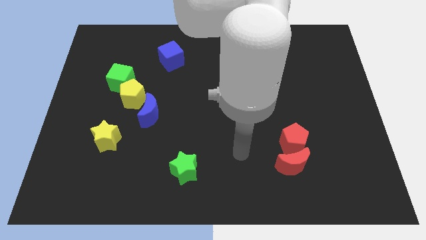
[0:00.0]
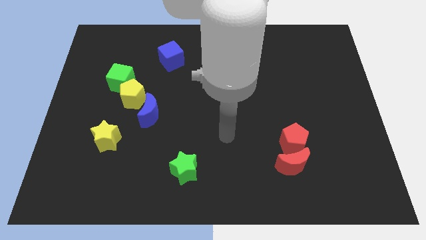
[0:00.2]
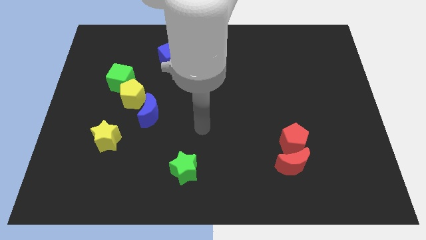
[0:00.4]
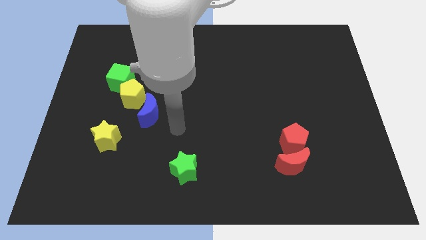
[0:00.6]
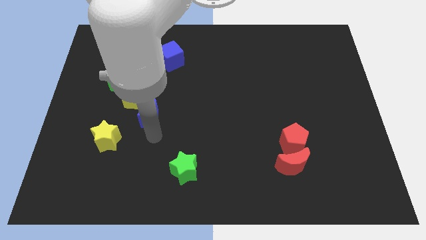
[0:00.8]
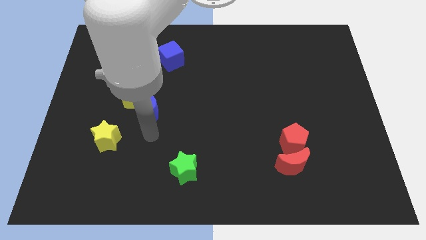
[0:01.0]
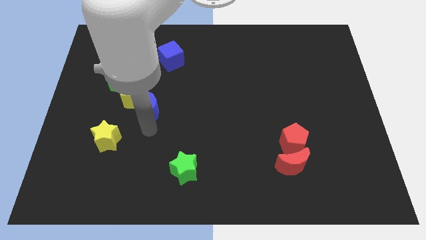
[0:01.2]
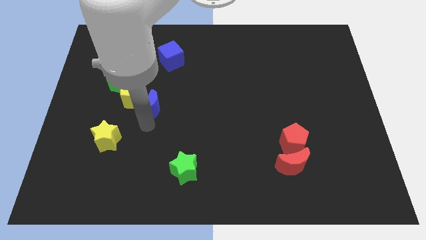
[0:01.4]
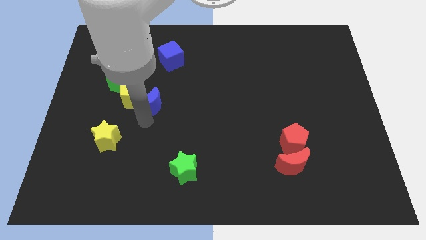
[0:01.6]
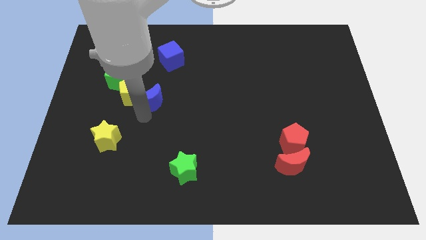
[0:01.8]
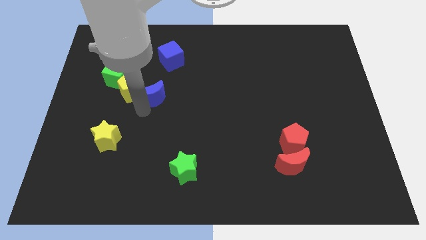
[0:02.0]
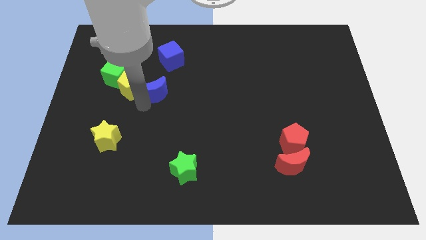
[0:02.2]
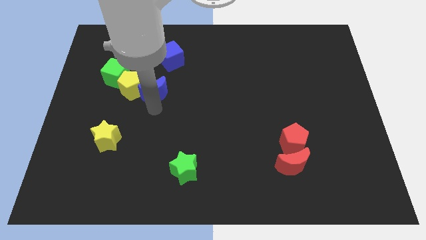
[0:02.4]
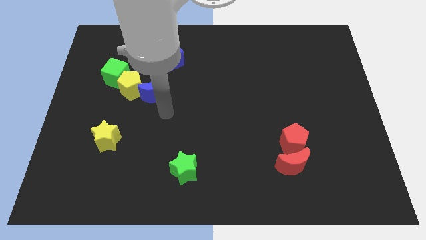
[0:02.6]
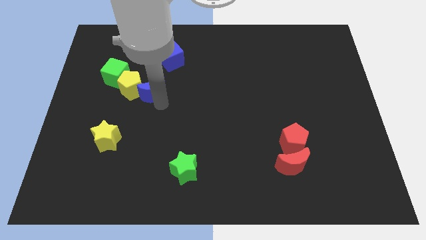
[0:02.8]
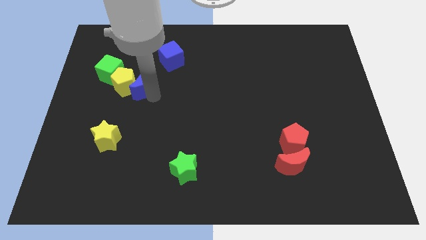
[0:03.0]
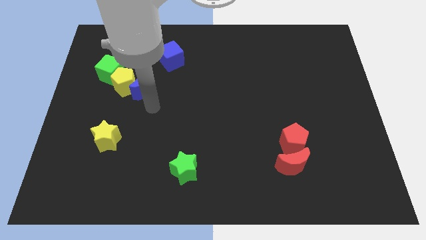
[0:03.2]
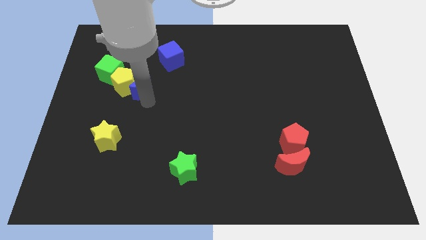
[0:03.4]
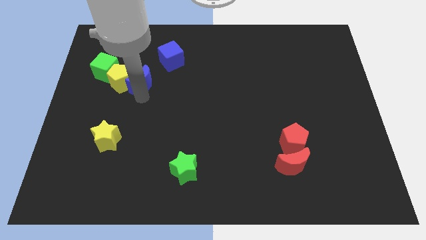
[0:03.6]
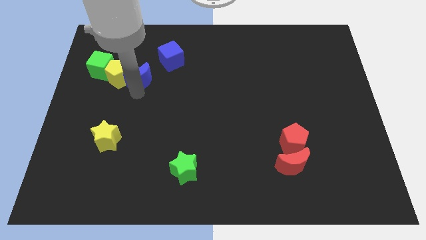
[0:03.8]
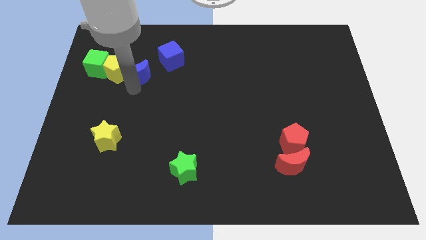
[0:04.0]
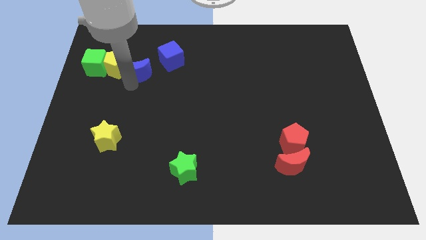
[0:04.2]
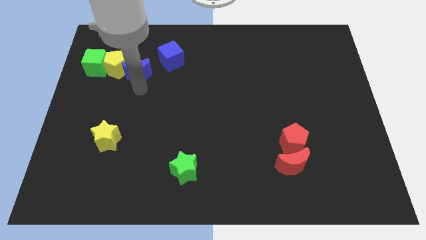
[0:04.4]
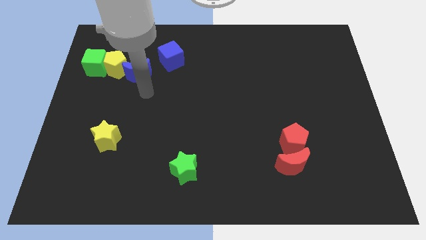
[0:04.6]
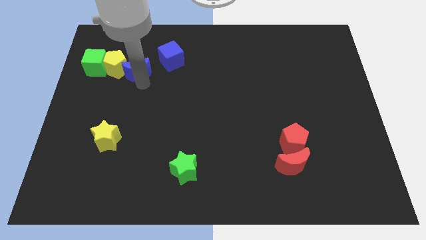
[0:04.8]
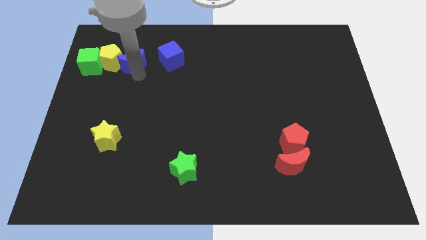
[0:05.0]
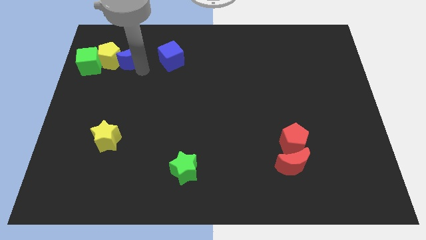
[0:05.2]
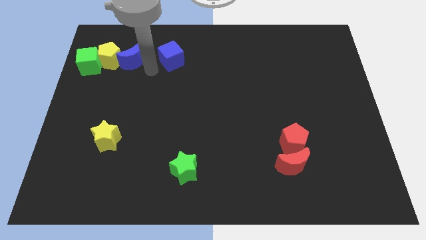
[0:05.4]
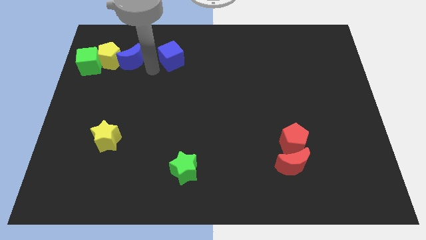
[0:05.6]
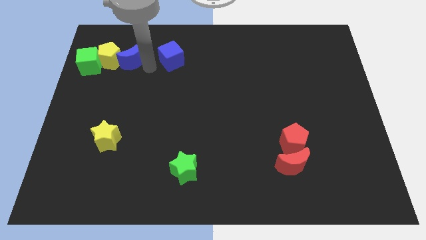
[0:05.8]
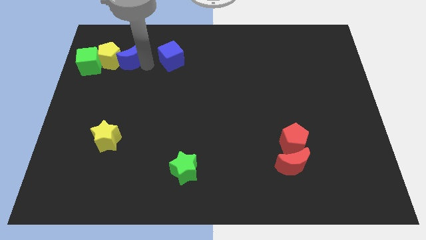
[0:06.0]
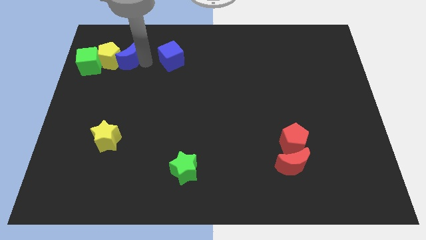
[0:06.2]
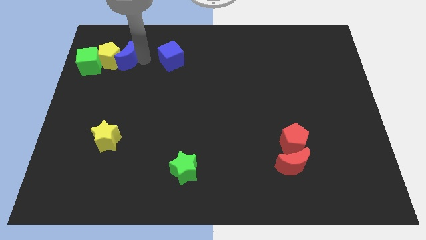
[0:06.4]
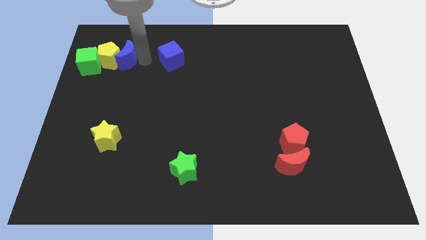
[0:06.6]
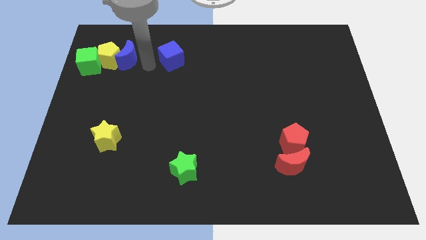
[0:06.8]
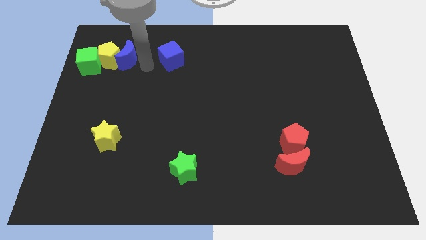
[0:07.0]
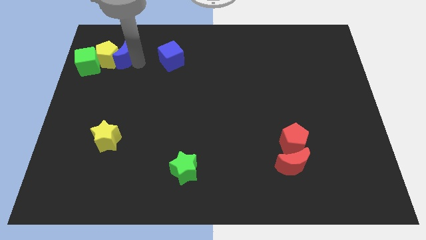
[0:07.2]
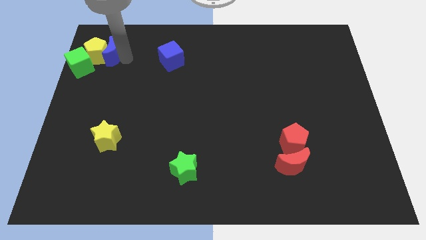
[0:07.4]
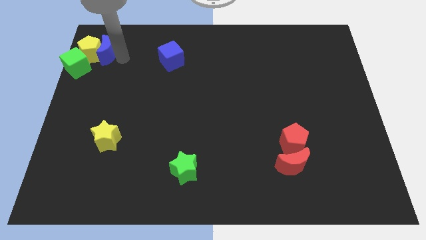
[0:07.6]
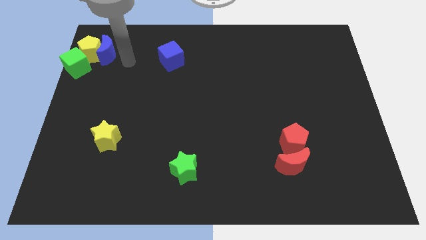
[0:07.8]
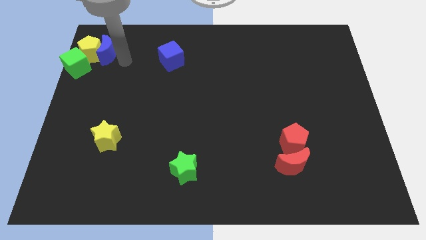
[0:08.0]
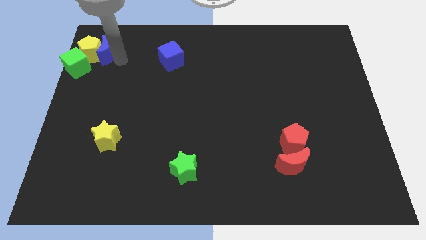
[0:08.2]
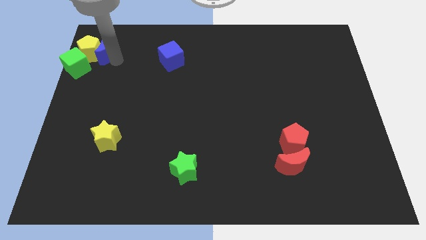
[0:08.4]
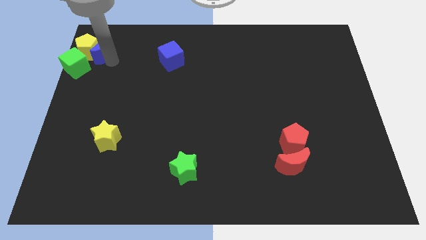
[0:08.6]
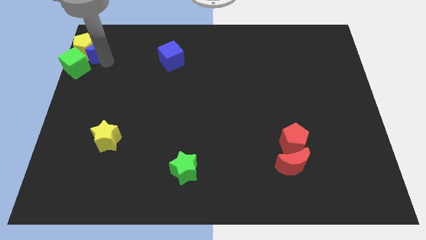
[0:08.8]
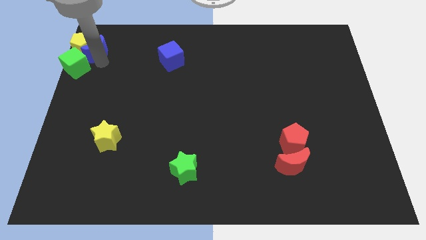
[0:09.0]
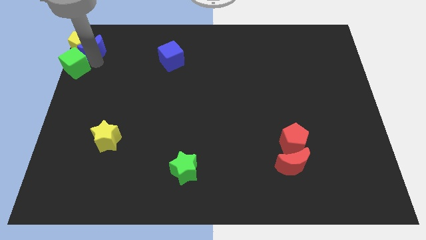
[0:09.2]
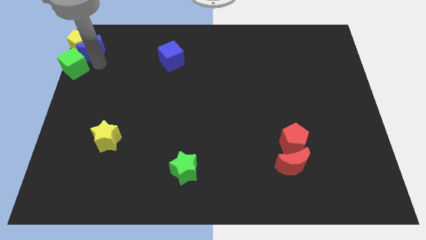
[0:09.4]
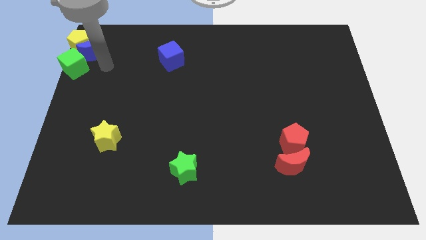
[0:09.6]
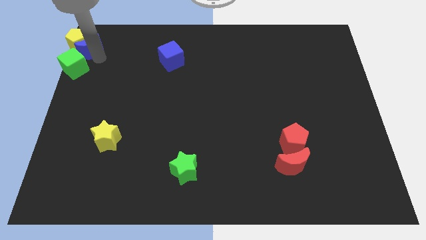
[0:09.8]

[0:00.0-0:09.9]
slide the blue moon to the top left

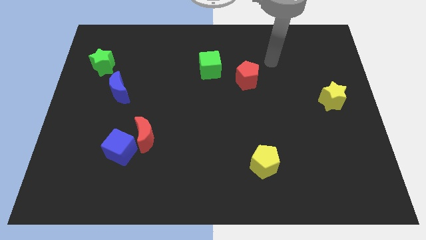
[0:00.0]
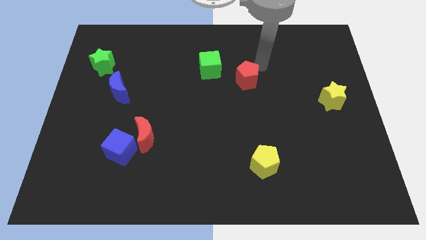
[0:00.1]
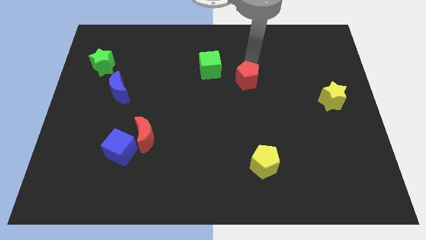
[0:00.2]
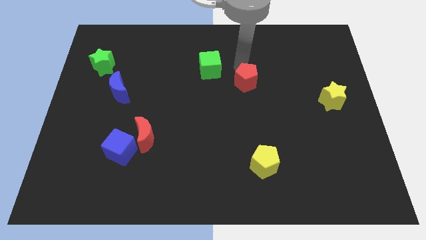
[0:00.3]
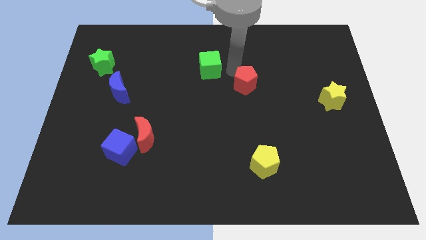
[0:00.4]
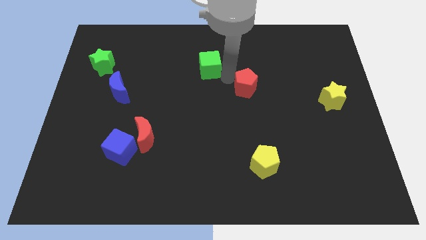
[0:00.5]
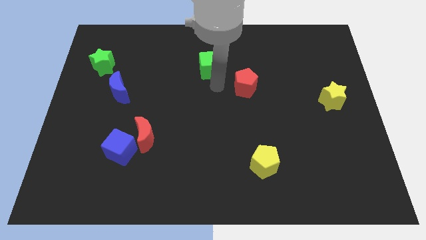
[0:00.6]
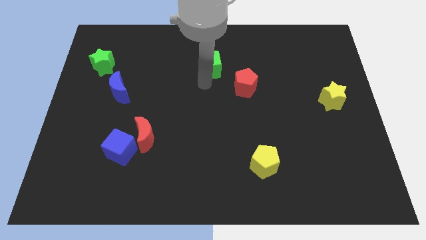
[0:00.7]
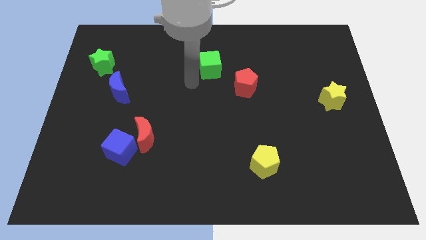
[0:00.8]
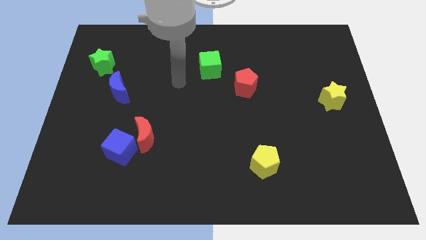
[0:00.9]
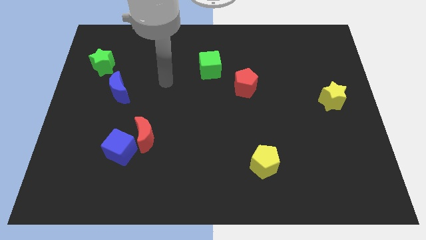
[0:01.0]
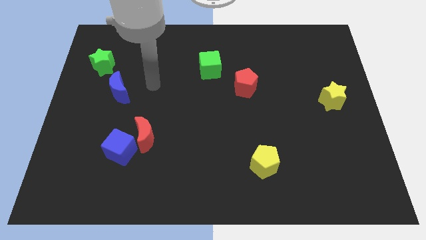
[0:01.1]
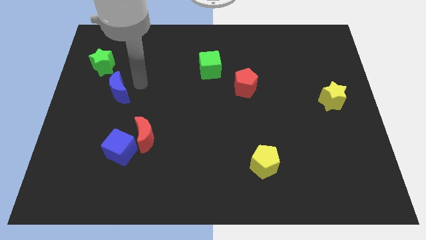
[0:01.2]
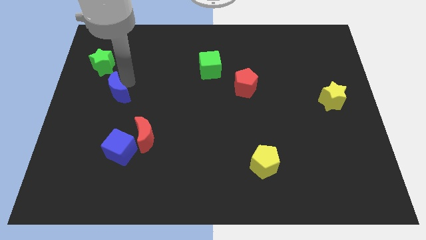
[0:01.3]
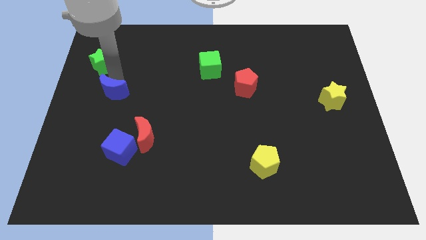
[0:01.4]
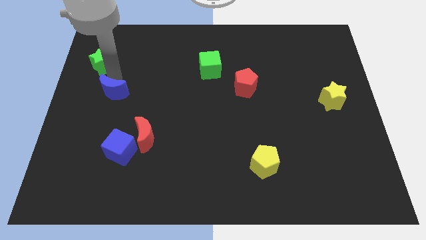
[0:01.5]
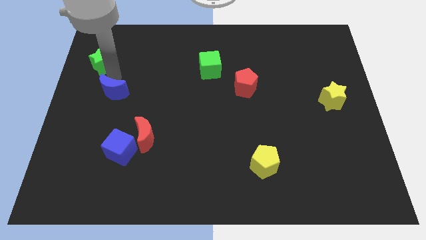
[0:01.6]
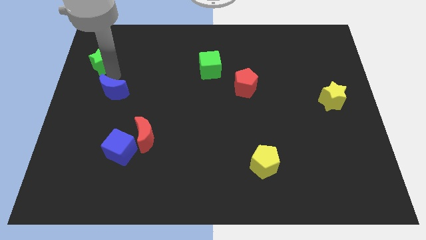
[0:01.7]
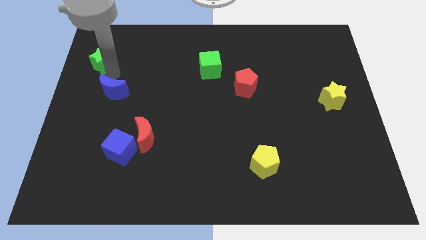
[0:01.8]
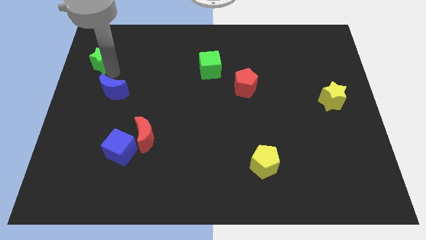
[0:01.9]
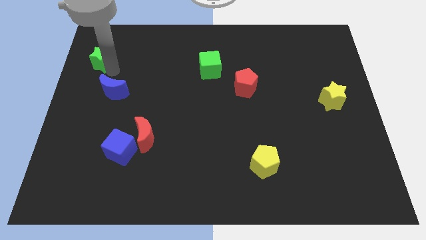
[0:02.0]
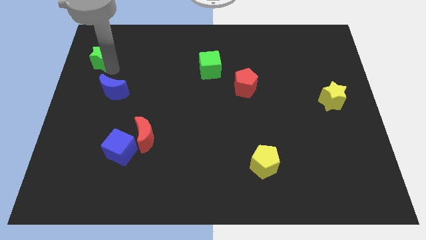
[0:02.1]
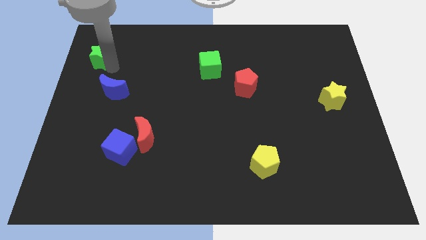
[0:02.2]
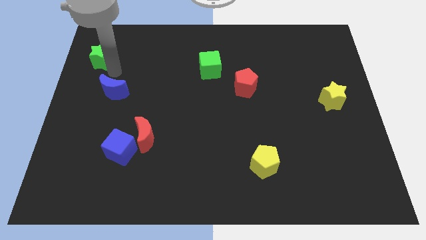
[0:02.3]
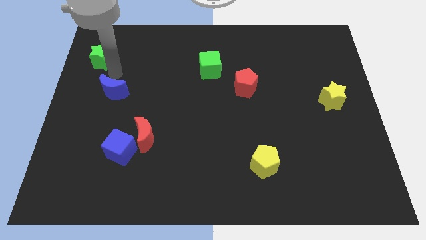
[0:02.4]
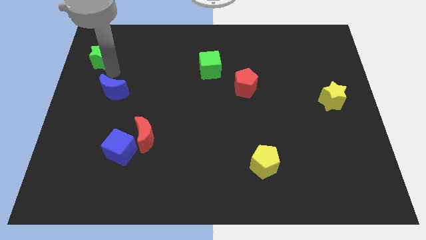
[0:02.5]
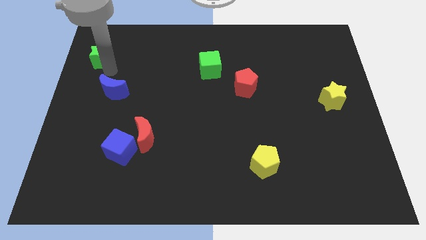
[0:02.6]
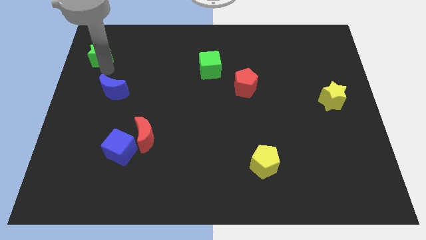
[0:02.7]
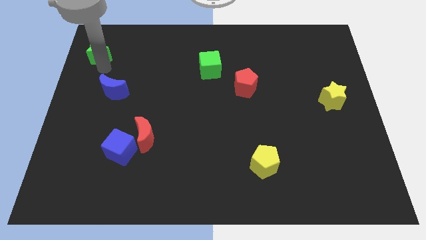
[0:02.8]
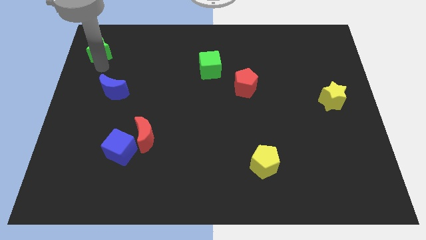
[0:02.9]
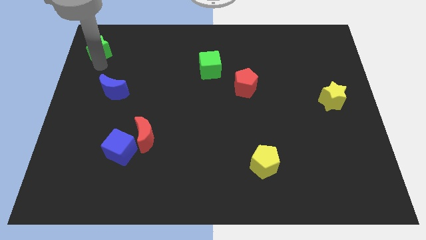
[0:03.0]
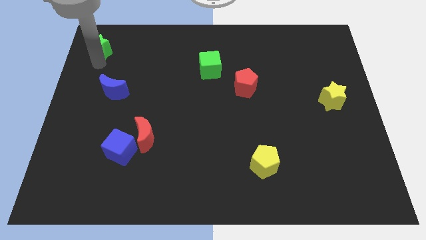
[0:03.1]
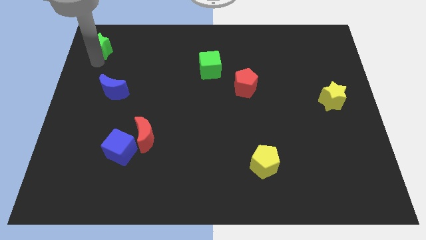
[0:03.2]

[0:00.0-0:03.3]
move the green star to the top left of the board
